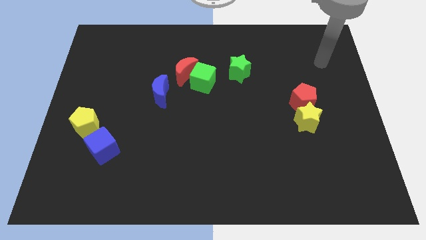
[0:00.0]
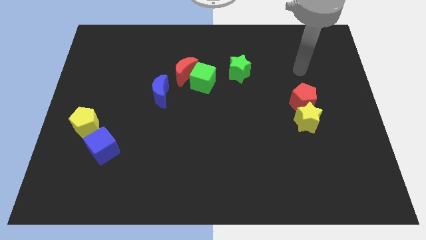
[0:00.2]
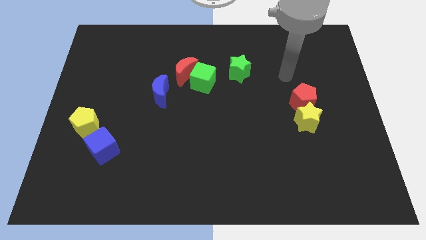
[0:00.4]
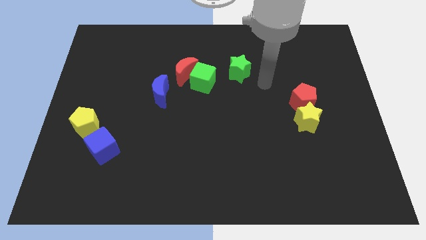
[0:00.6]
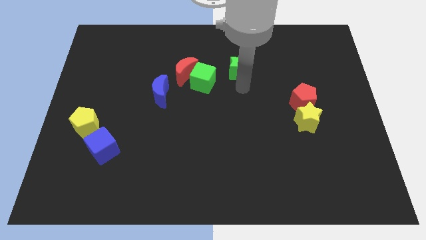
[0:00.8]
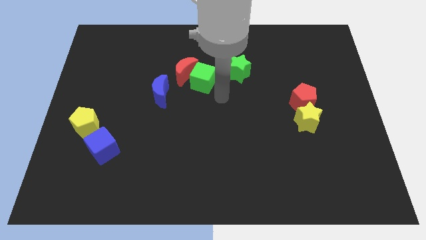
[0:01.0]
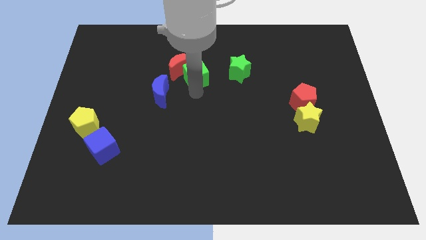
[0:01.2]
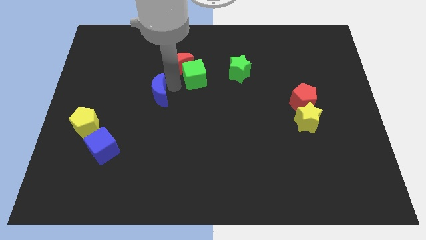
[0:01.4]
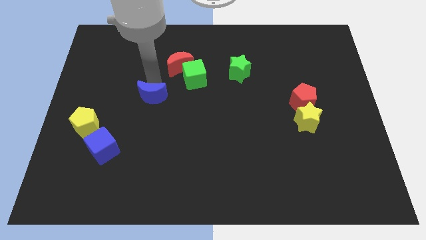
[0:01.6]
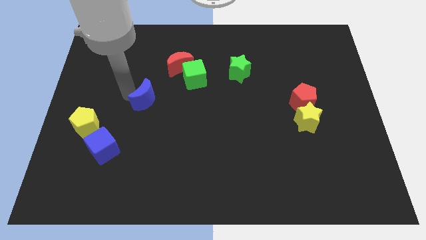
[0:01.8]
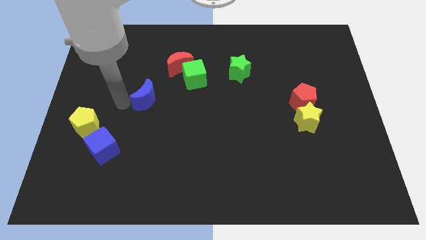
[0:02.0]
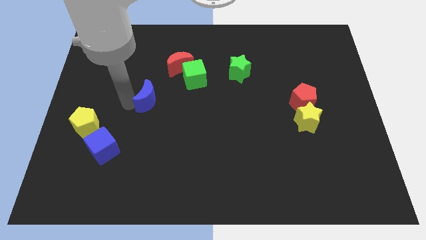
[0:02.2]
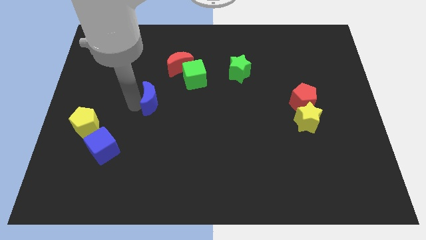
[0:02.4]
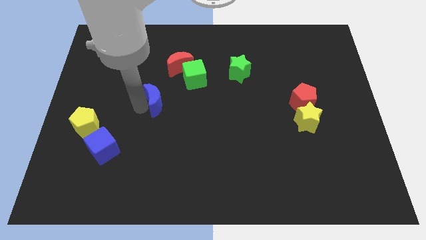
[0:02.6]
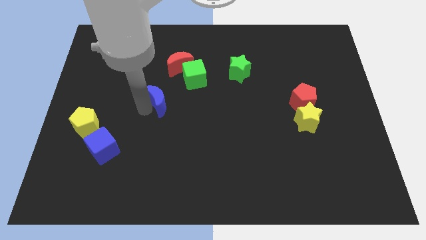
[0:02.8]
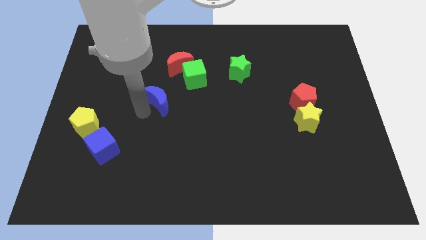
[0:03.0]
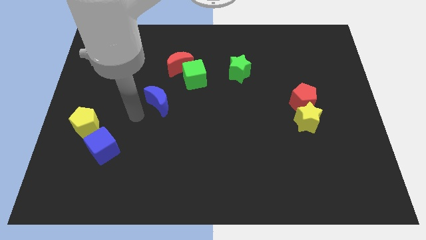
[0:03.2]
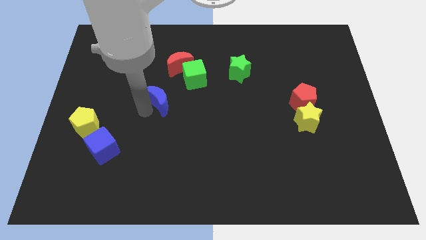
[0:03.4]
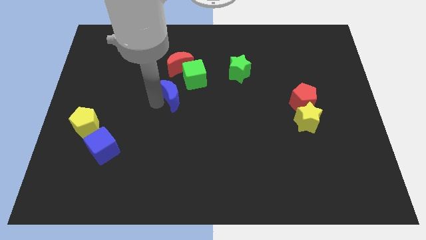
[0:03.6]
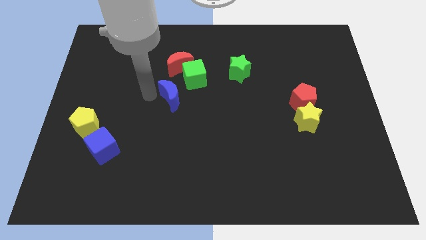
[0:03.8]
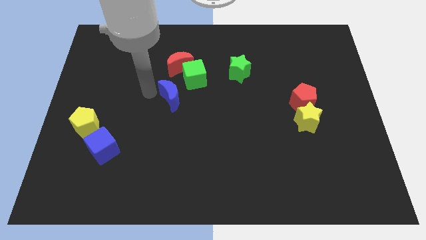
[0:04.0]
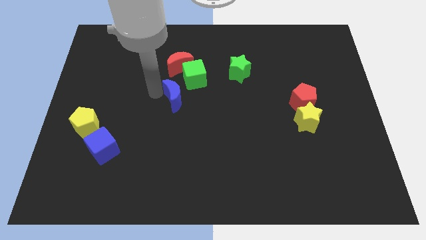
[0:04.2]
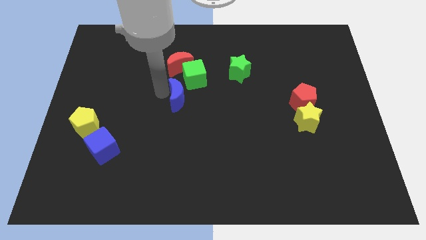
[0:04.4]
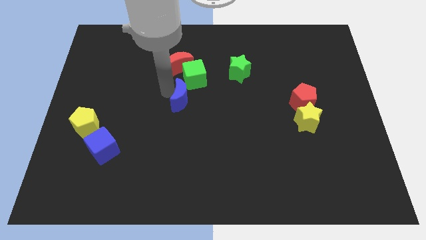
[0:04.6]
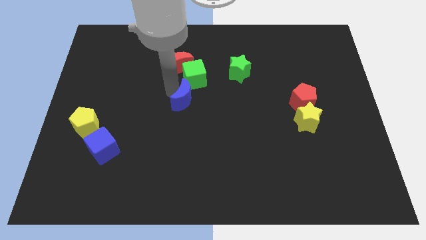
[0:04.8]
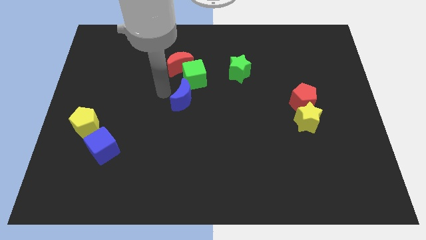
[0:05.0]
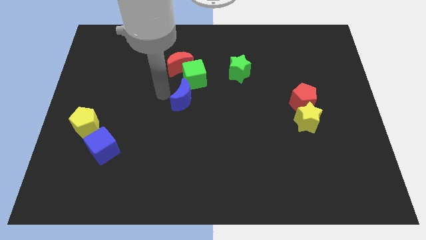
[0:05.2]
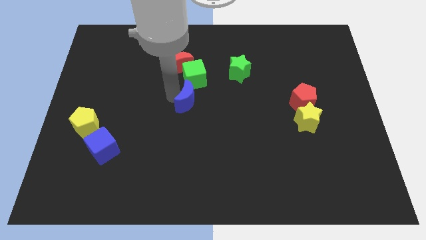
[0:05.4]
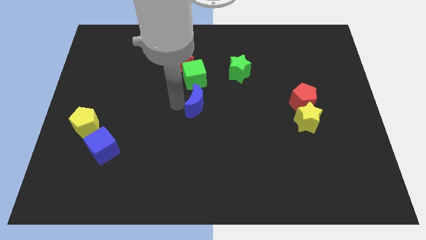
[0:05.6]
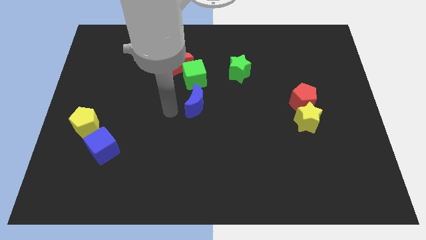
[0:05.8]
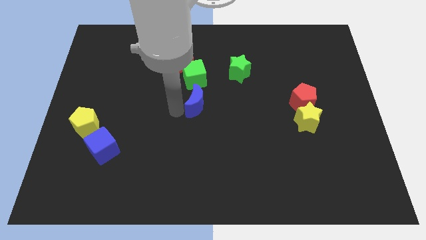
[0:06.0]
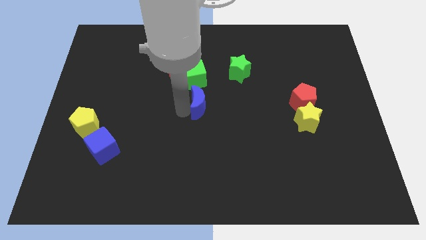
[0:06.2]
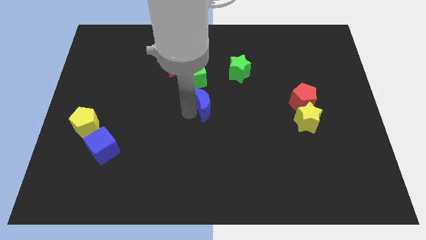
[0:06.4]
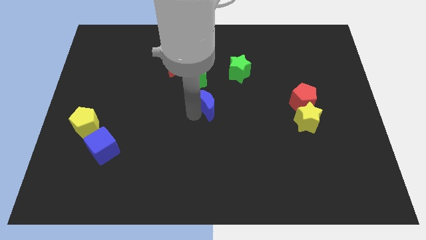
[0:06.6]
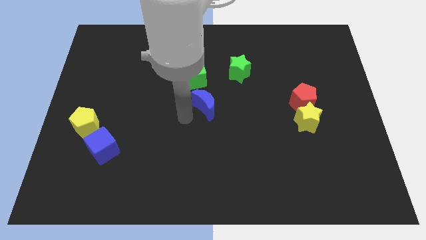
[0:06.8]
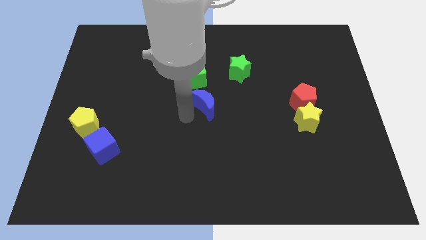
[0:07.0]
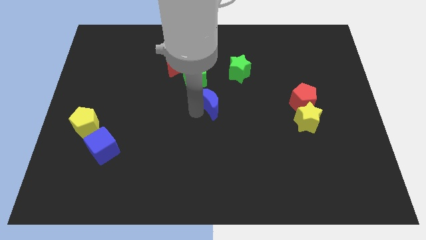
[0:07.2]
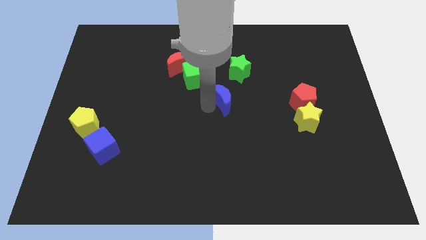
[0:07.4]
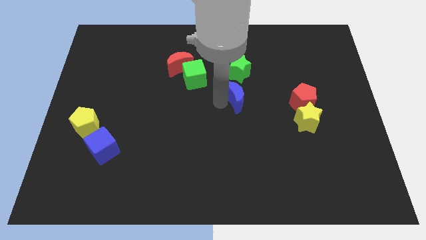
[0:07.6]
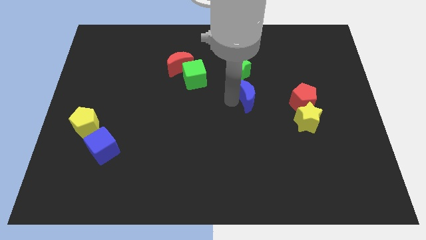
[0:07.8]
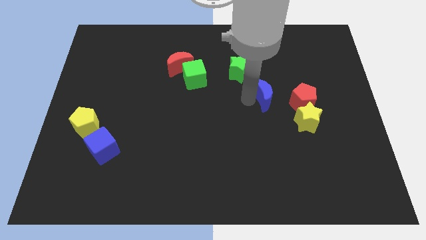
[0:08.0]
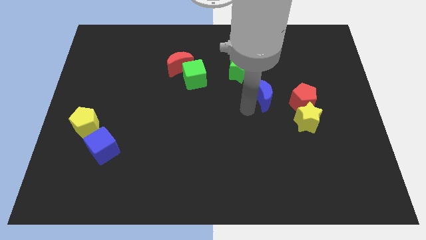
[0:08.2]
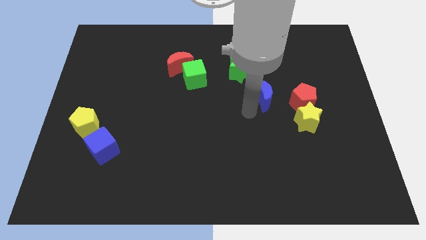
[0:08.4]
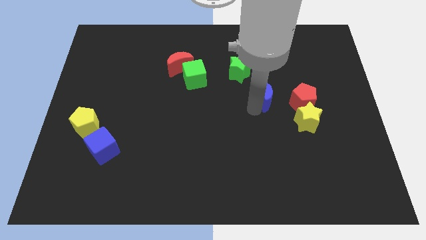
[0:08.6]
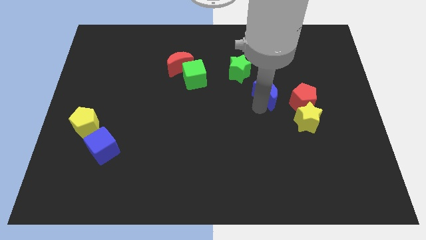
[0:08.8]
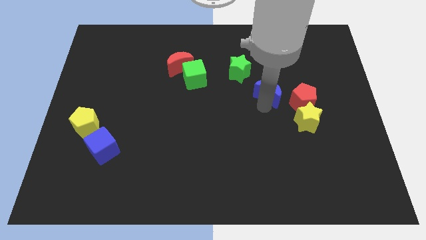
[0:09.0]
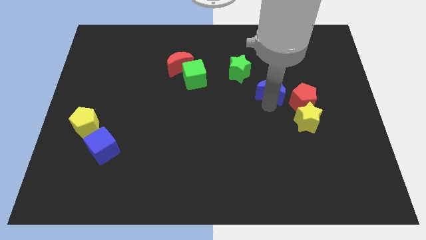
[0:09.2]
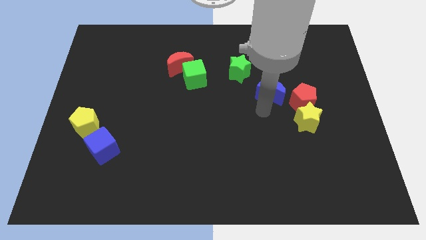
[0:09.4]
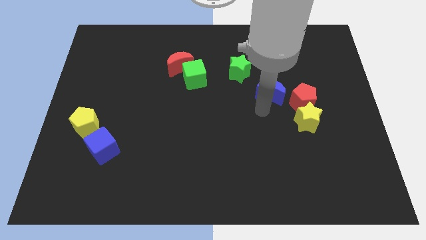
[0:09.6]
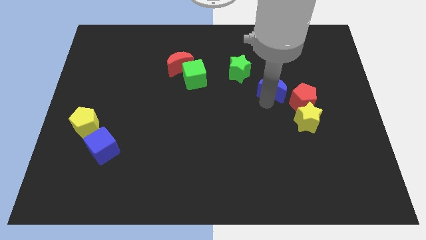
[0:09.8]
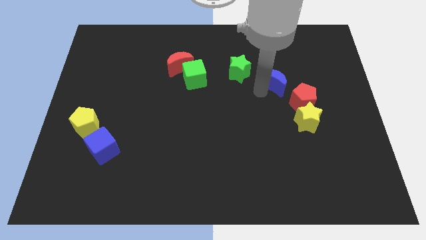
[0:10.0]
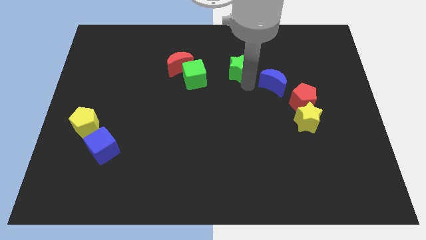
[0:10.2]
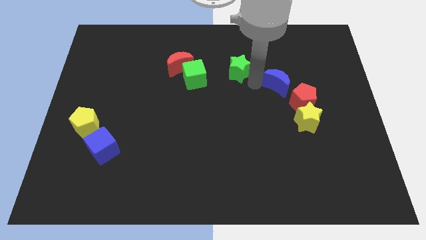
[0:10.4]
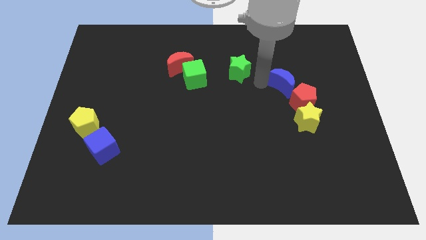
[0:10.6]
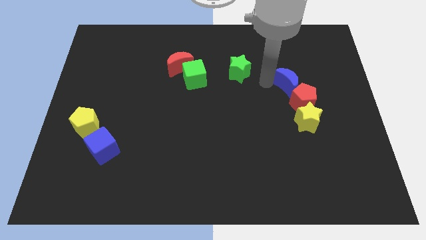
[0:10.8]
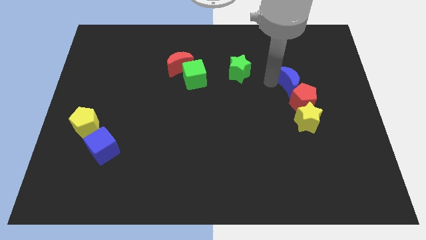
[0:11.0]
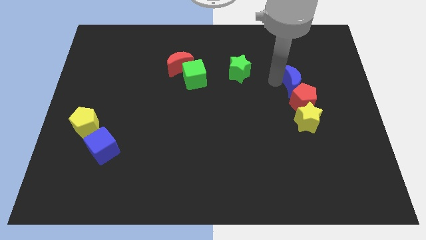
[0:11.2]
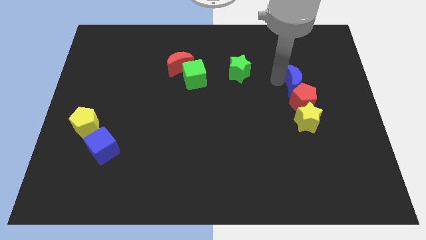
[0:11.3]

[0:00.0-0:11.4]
push the blue moon diagonally up and to the right of the red pentagon

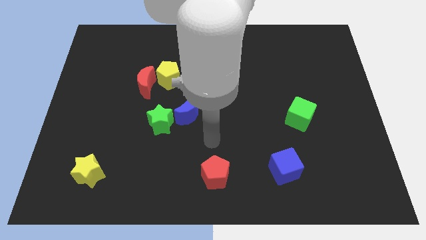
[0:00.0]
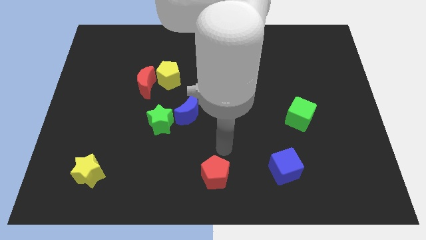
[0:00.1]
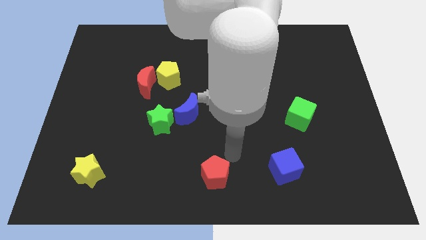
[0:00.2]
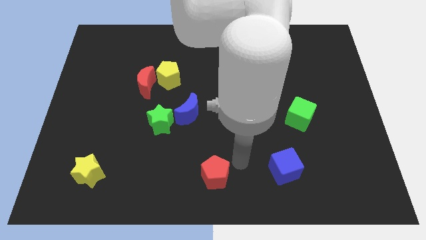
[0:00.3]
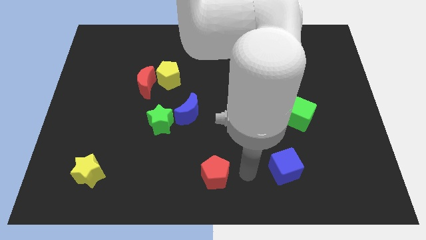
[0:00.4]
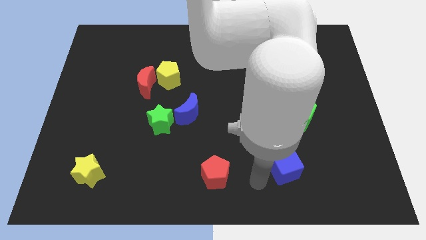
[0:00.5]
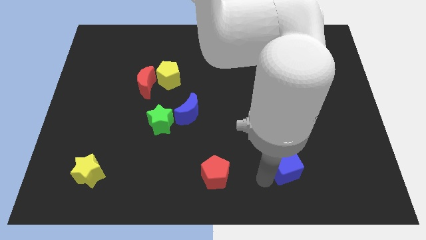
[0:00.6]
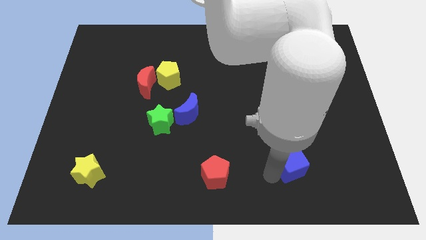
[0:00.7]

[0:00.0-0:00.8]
put the blue cube to the bottom side of the green cube

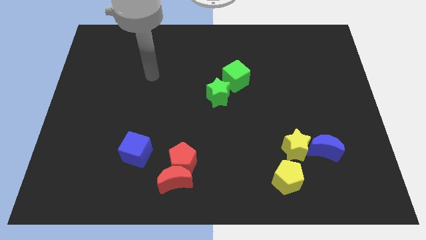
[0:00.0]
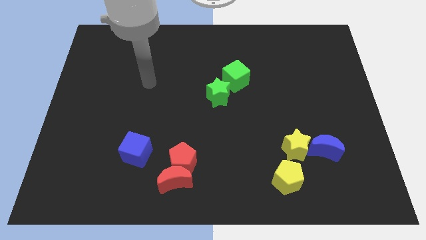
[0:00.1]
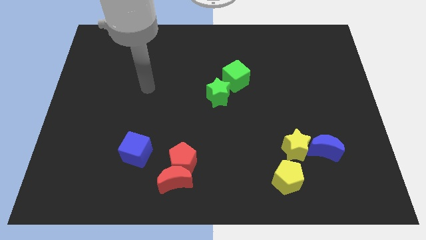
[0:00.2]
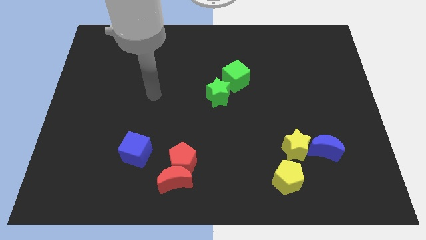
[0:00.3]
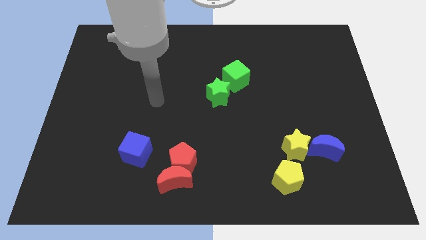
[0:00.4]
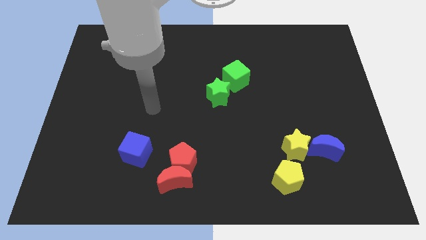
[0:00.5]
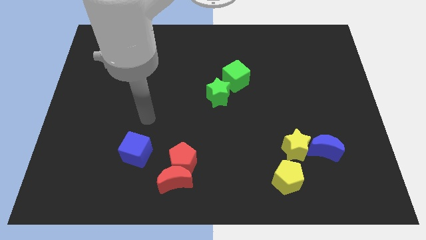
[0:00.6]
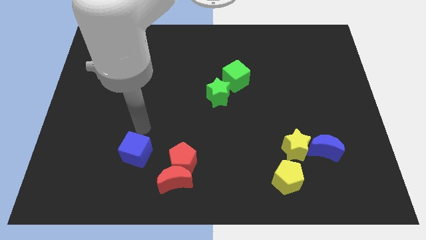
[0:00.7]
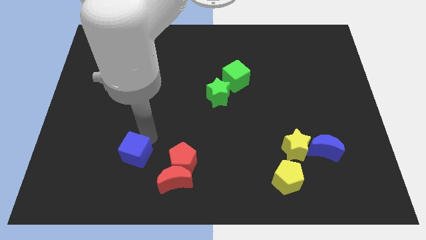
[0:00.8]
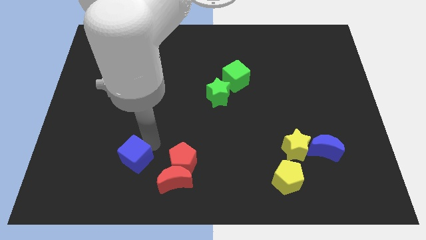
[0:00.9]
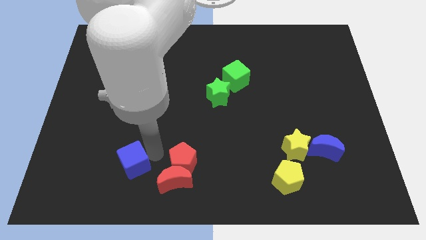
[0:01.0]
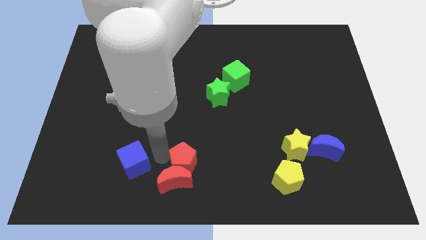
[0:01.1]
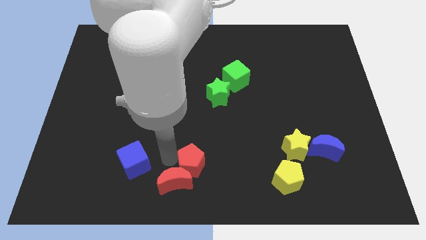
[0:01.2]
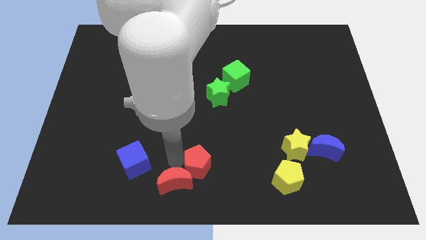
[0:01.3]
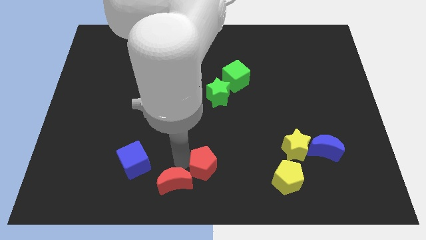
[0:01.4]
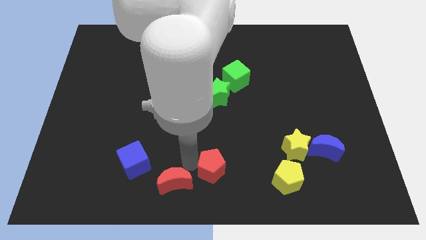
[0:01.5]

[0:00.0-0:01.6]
slide the red pentagon just left of the yellow pentagon
